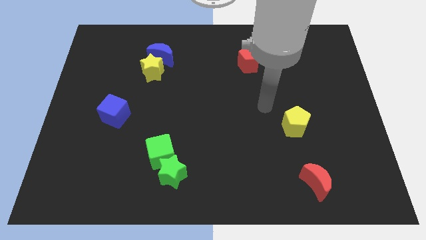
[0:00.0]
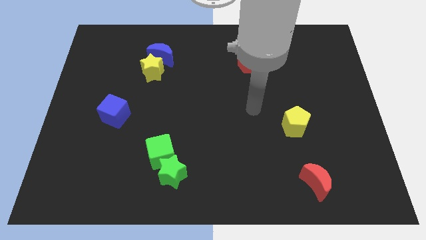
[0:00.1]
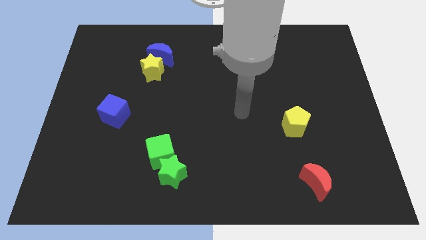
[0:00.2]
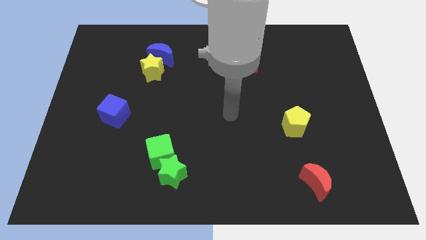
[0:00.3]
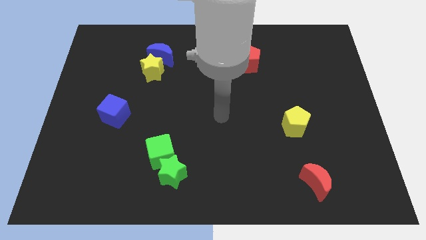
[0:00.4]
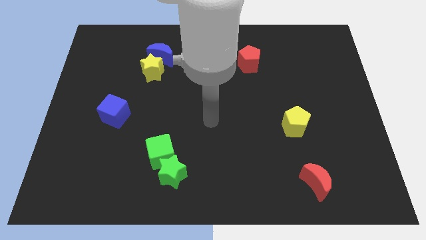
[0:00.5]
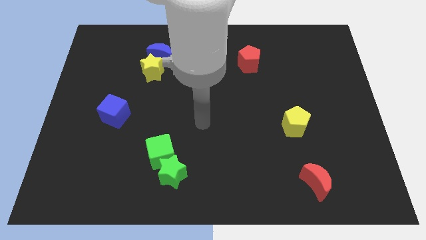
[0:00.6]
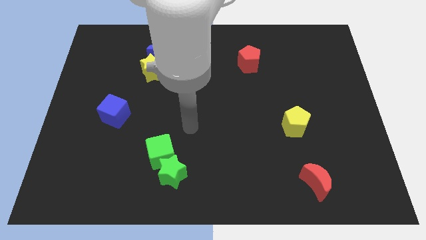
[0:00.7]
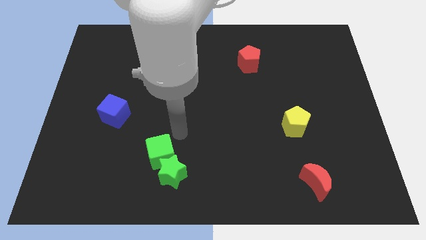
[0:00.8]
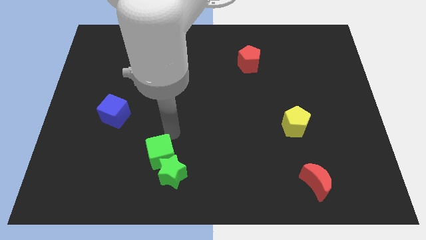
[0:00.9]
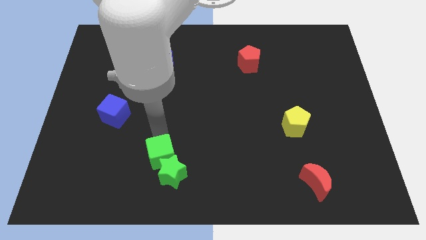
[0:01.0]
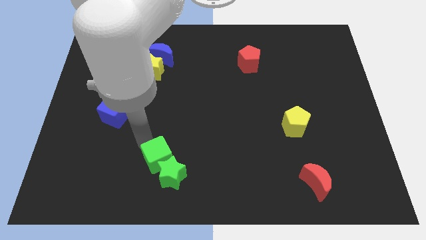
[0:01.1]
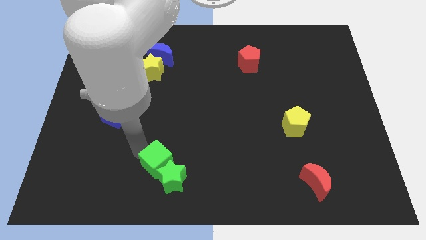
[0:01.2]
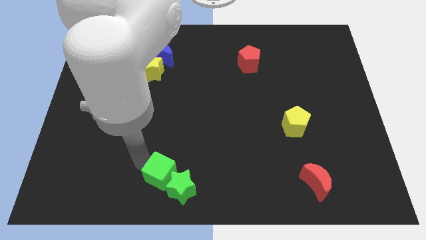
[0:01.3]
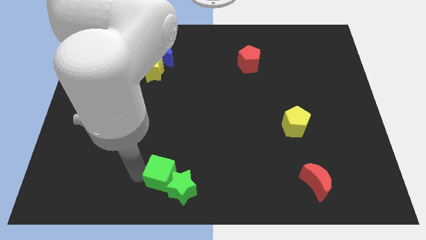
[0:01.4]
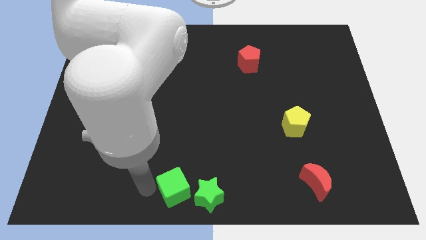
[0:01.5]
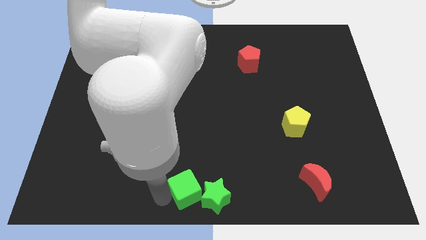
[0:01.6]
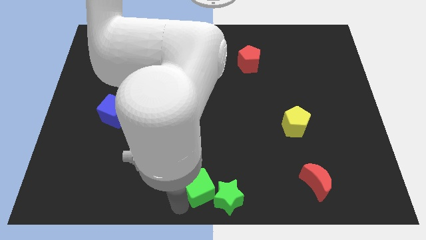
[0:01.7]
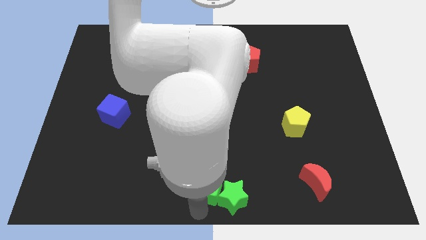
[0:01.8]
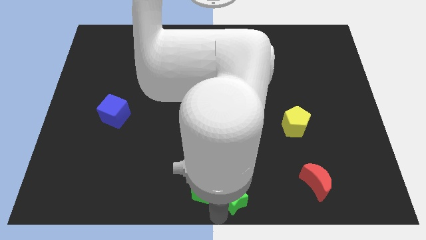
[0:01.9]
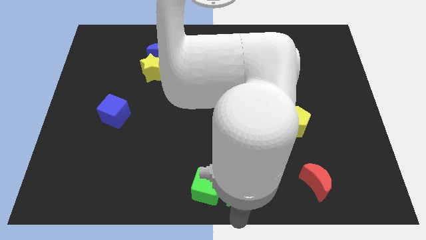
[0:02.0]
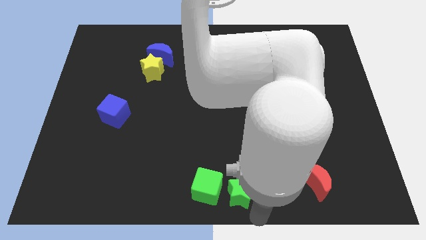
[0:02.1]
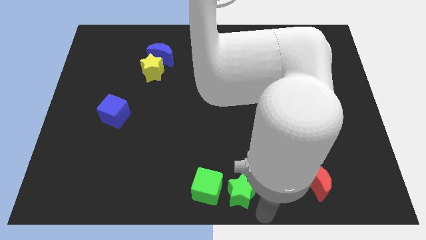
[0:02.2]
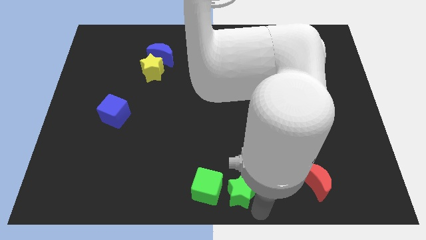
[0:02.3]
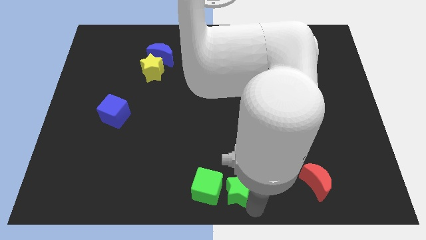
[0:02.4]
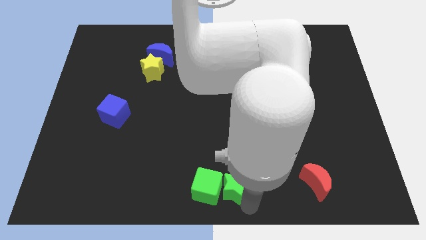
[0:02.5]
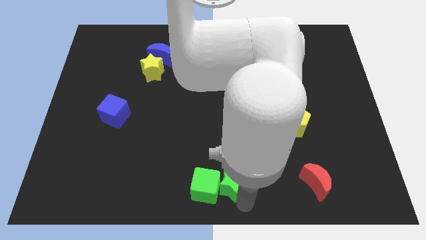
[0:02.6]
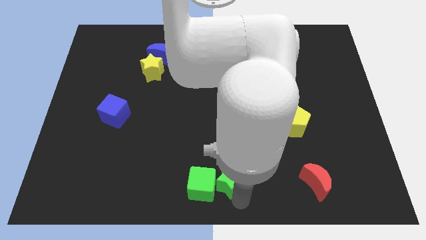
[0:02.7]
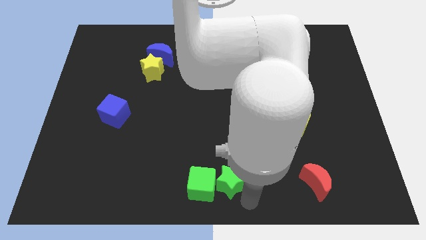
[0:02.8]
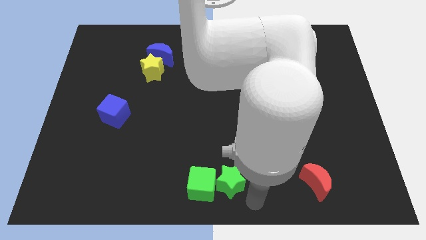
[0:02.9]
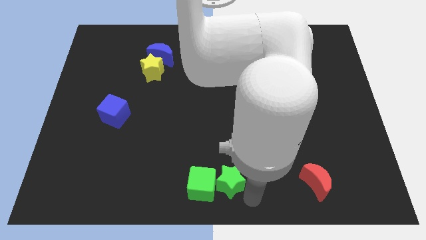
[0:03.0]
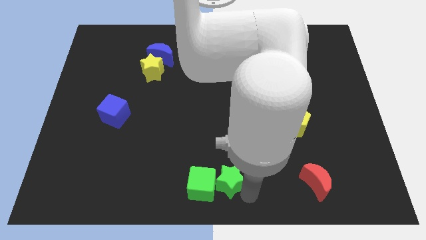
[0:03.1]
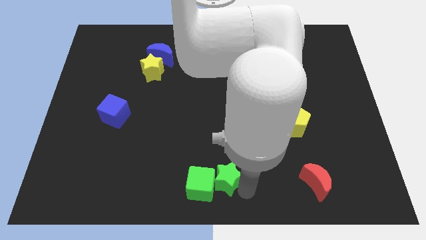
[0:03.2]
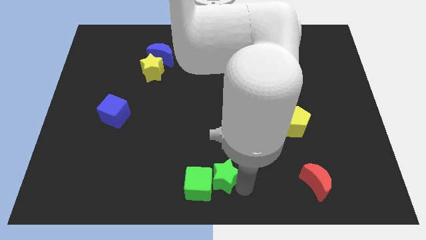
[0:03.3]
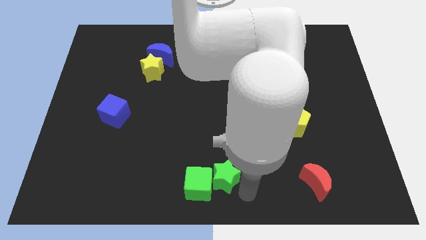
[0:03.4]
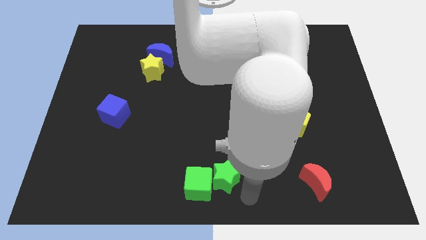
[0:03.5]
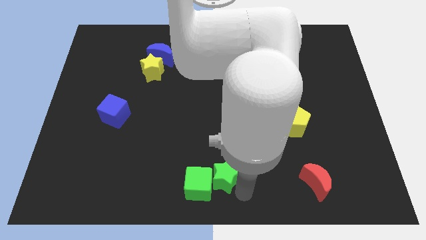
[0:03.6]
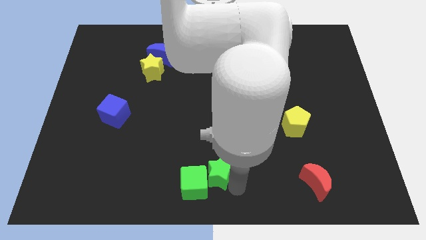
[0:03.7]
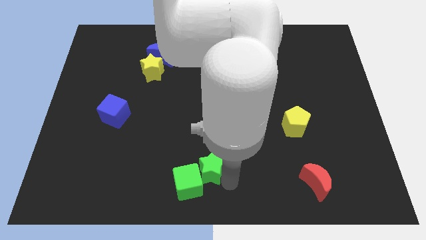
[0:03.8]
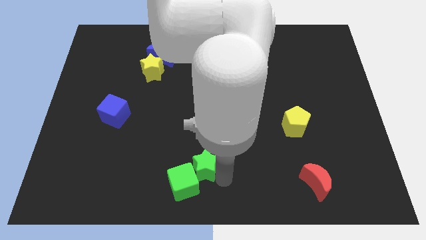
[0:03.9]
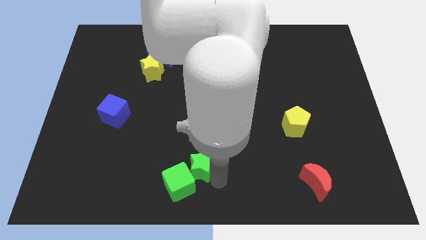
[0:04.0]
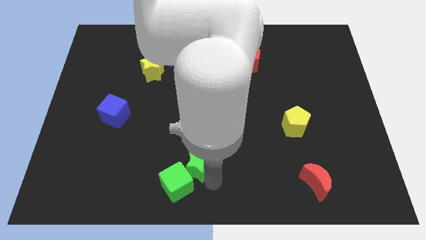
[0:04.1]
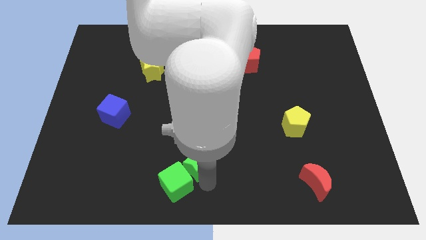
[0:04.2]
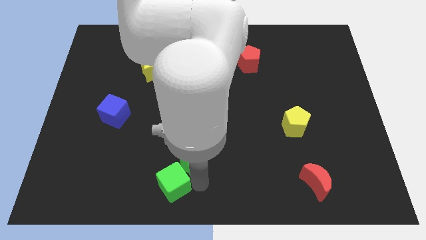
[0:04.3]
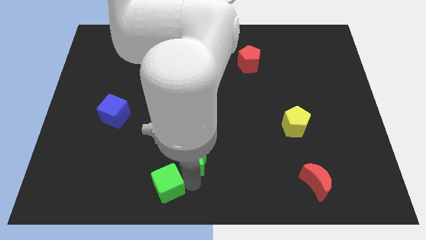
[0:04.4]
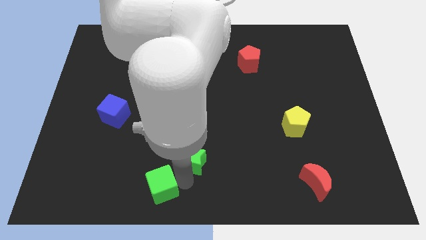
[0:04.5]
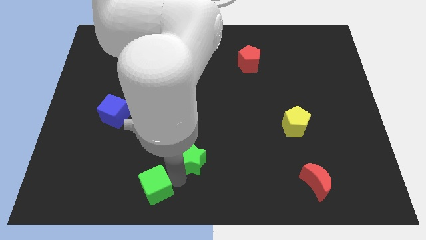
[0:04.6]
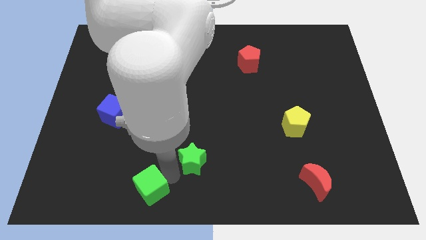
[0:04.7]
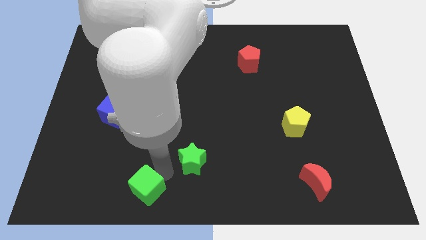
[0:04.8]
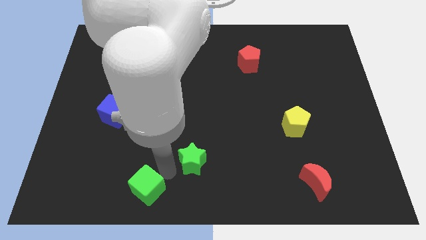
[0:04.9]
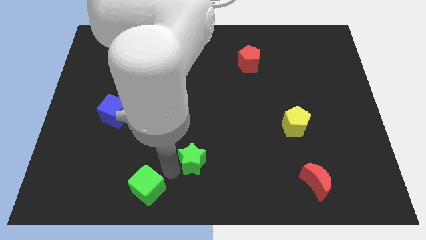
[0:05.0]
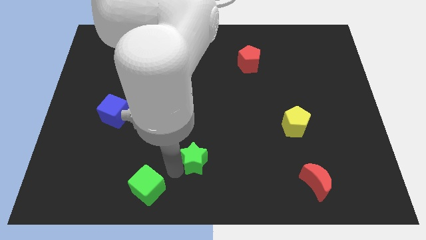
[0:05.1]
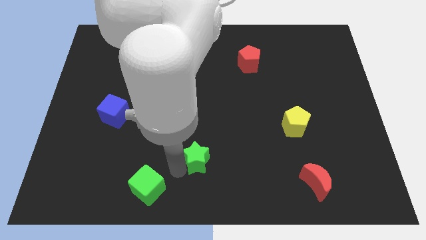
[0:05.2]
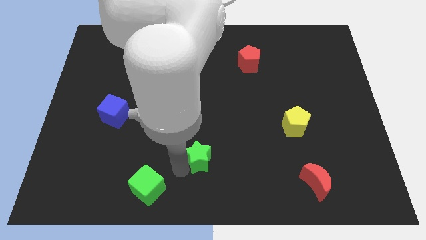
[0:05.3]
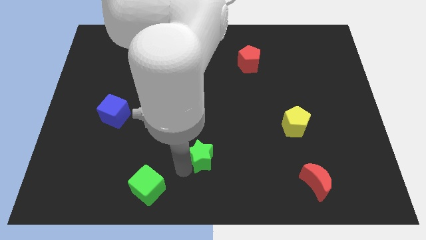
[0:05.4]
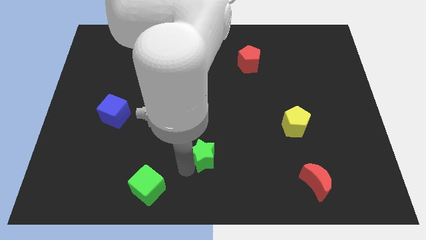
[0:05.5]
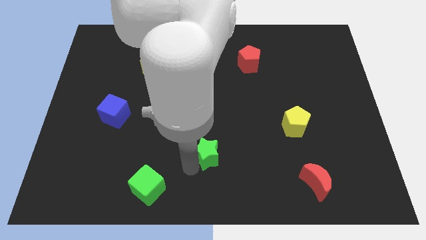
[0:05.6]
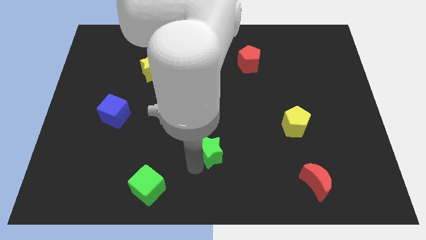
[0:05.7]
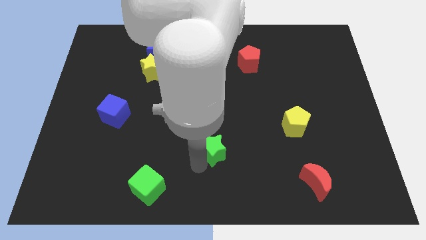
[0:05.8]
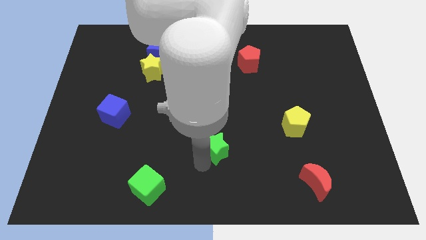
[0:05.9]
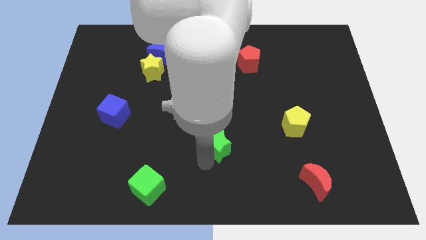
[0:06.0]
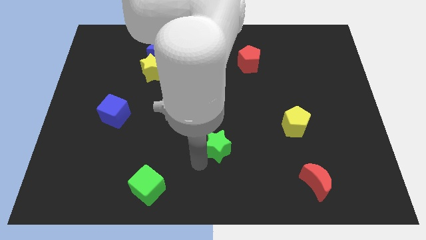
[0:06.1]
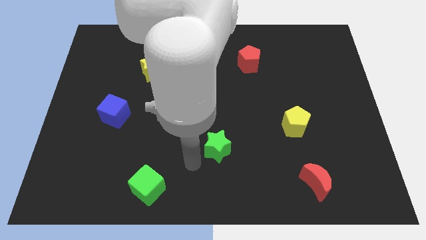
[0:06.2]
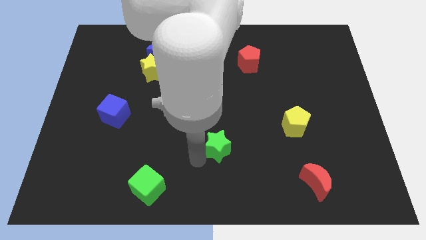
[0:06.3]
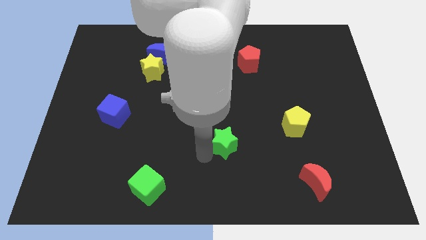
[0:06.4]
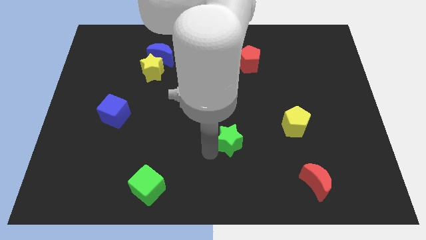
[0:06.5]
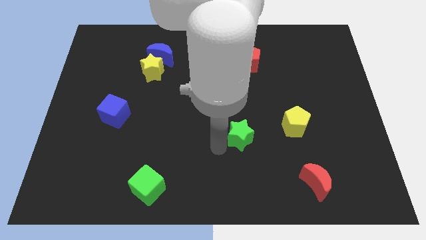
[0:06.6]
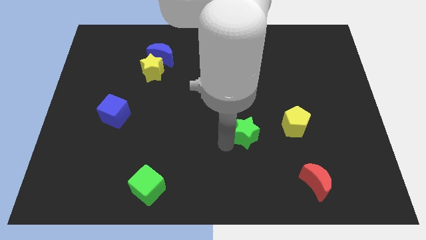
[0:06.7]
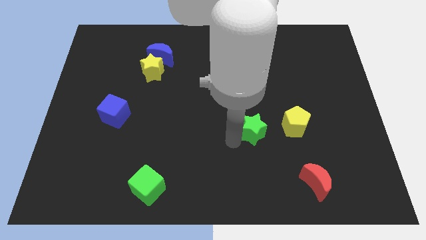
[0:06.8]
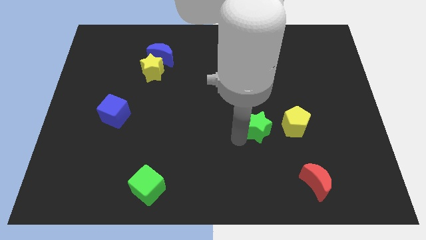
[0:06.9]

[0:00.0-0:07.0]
slide the green star up and right diagonally

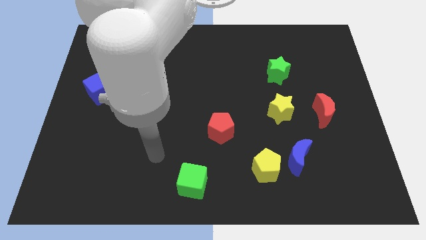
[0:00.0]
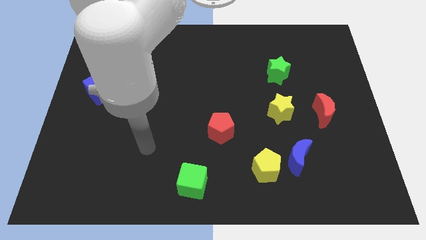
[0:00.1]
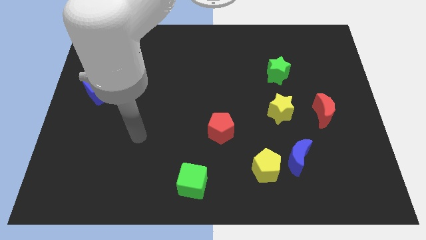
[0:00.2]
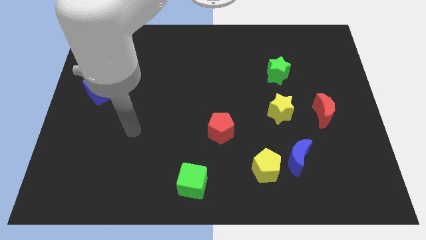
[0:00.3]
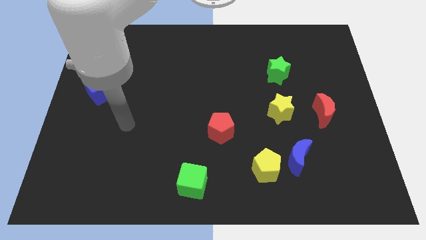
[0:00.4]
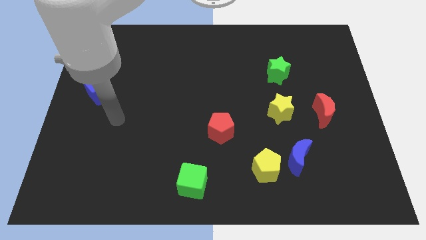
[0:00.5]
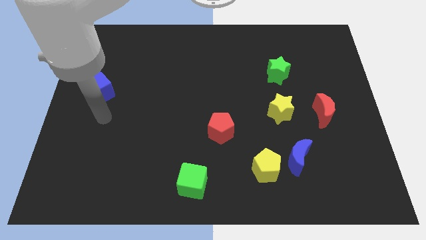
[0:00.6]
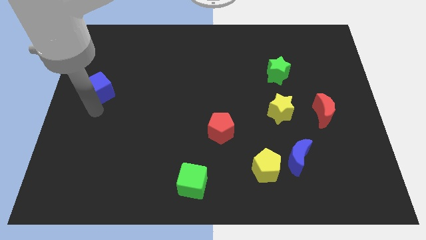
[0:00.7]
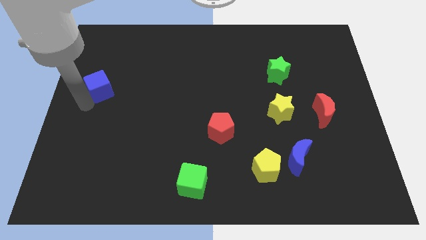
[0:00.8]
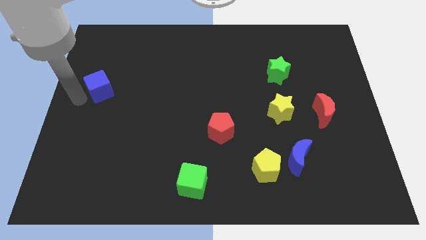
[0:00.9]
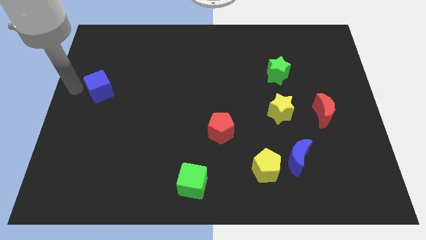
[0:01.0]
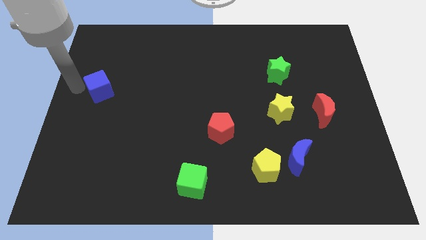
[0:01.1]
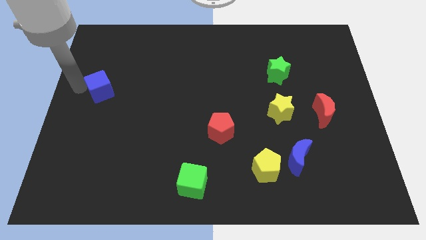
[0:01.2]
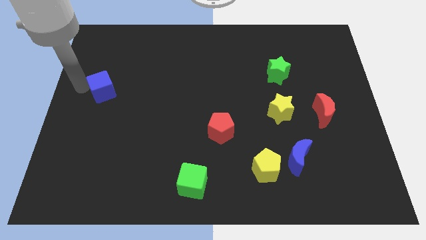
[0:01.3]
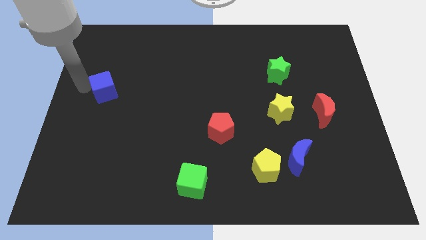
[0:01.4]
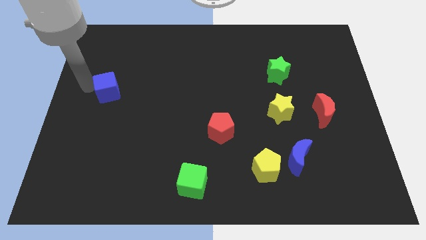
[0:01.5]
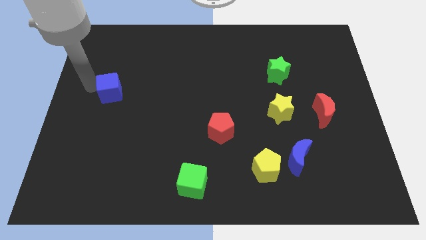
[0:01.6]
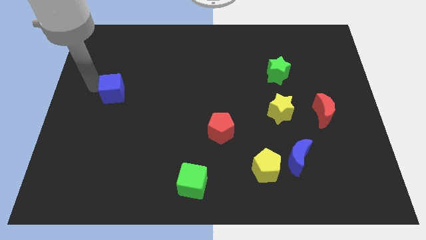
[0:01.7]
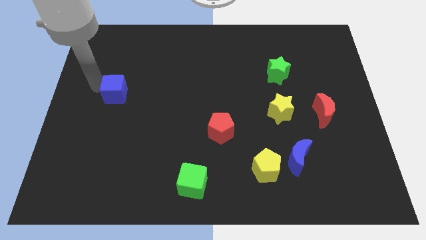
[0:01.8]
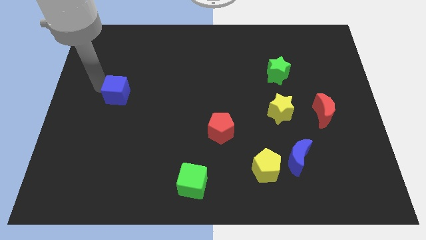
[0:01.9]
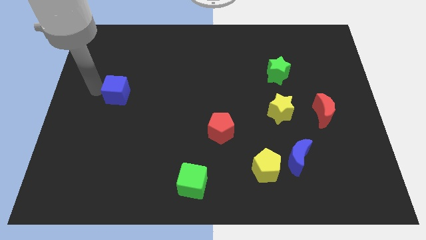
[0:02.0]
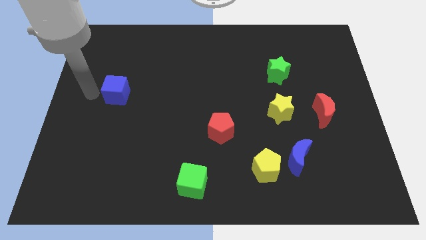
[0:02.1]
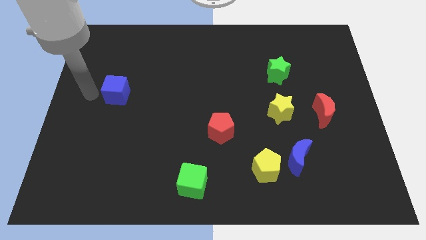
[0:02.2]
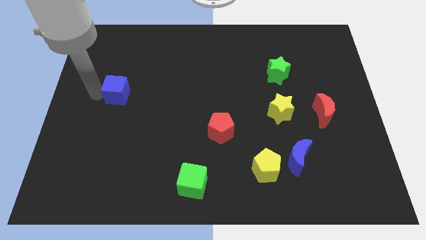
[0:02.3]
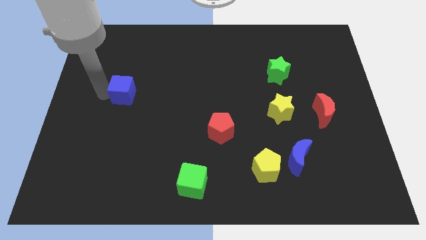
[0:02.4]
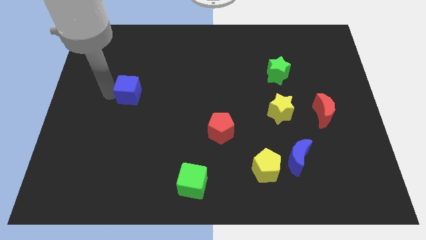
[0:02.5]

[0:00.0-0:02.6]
move the blue cube slightly right
